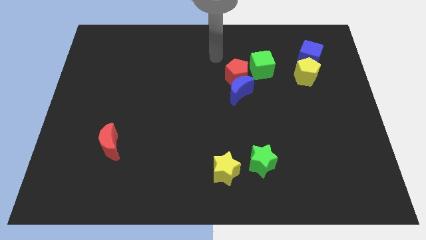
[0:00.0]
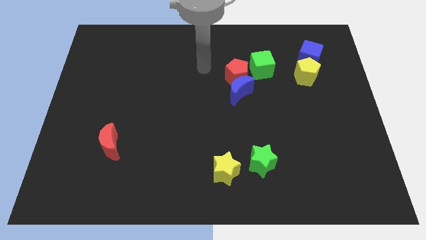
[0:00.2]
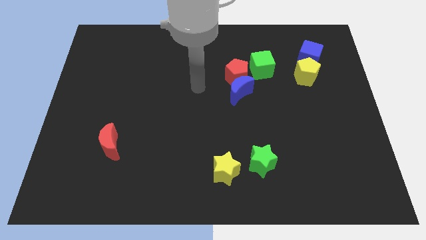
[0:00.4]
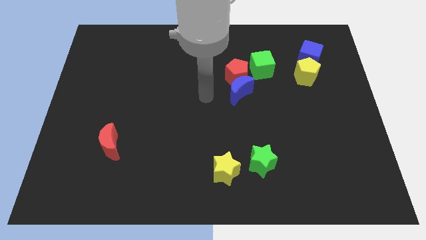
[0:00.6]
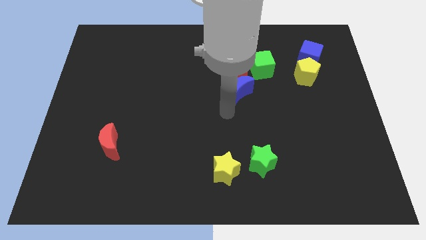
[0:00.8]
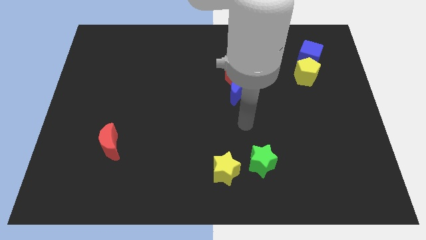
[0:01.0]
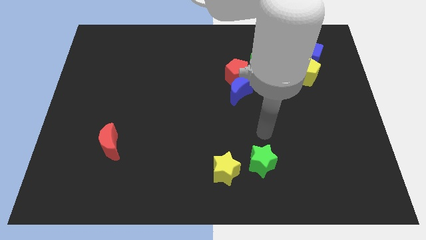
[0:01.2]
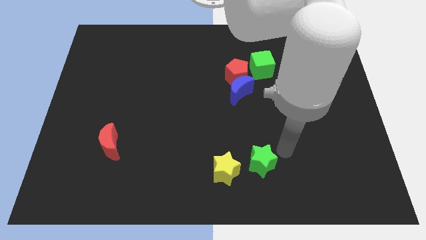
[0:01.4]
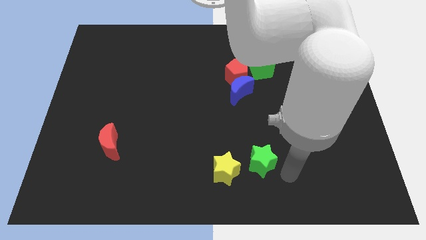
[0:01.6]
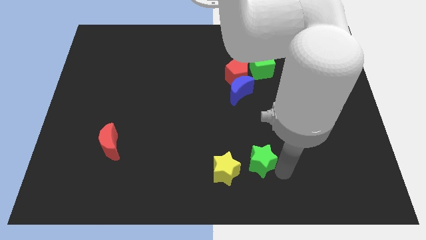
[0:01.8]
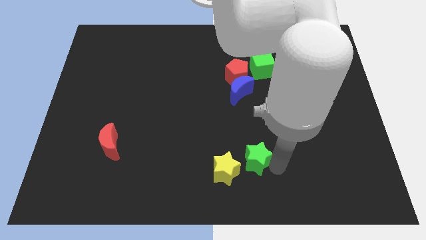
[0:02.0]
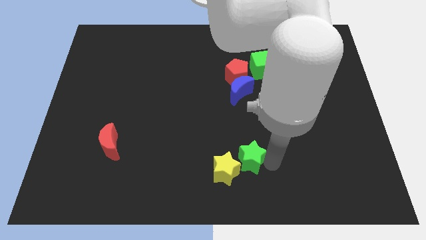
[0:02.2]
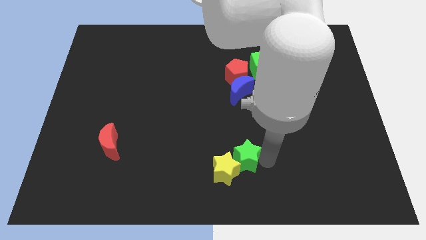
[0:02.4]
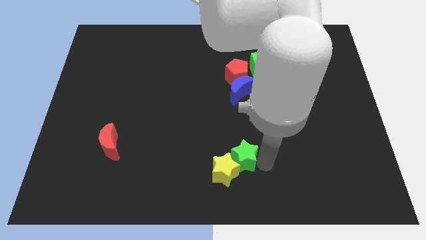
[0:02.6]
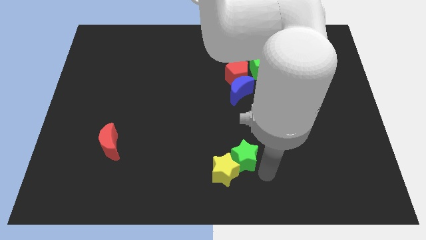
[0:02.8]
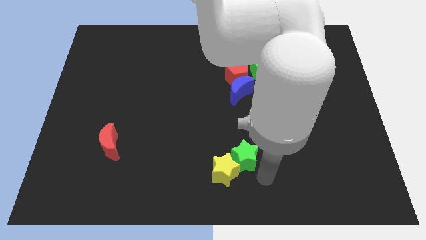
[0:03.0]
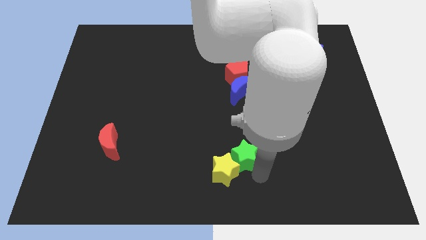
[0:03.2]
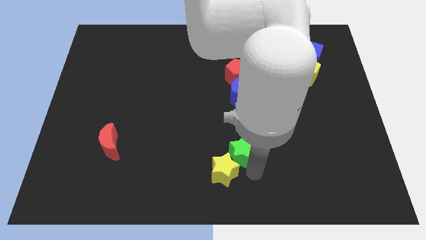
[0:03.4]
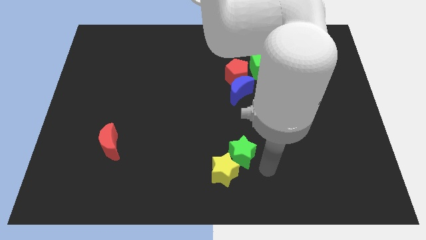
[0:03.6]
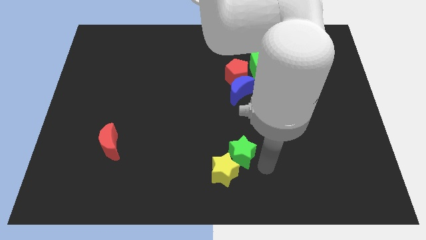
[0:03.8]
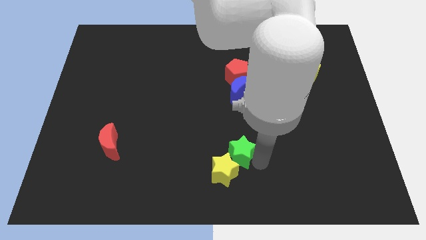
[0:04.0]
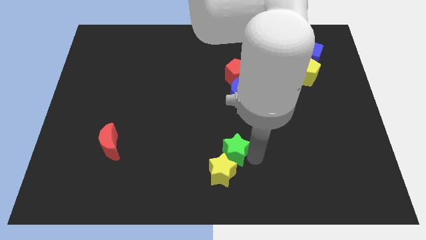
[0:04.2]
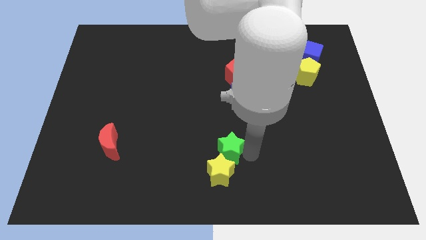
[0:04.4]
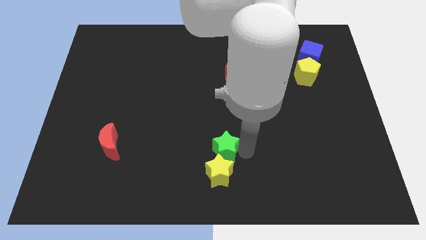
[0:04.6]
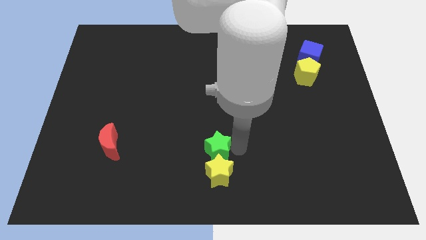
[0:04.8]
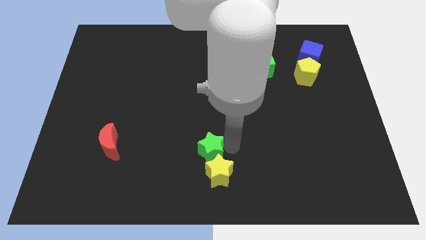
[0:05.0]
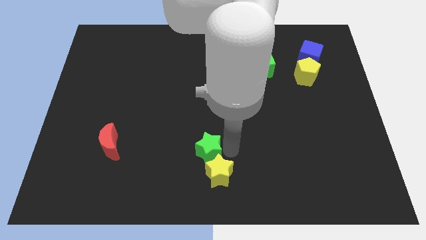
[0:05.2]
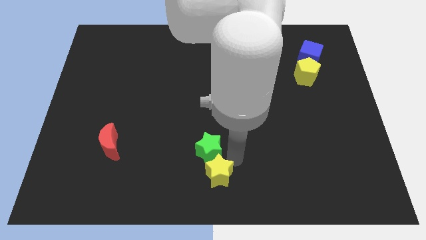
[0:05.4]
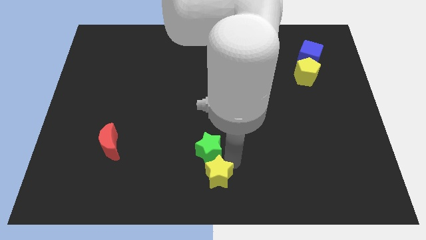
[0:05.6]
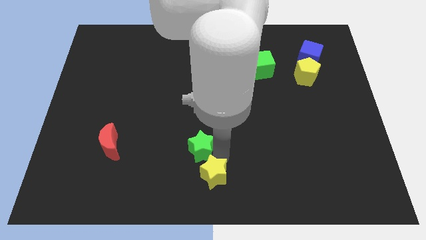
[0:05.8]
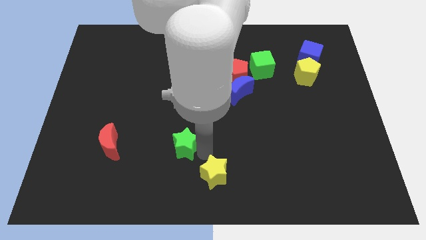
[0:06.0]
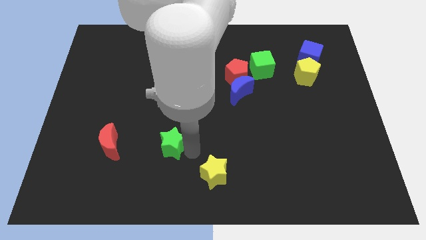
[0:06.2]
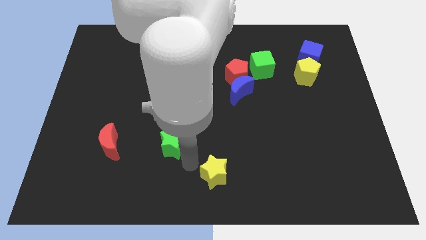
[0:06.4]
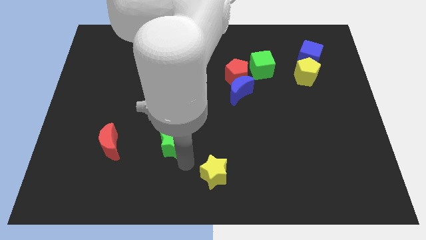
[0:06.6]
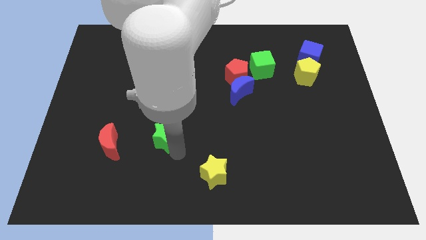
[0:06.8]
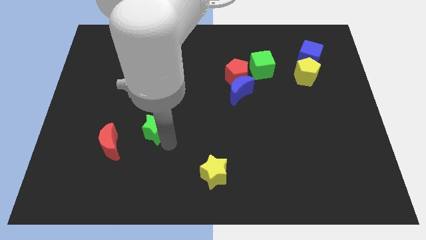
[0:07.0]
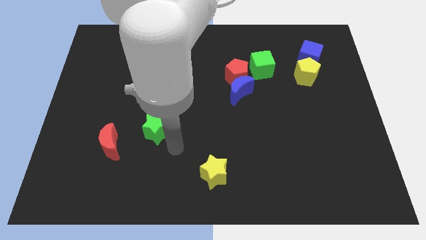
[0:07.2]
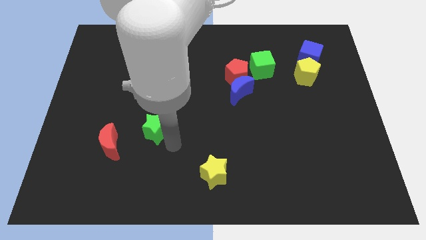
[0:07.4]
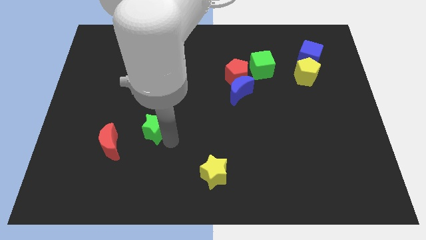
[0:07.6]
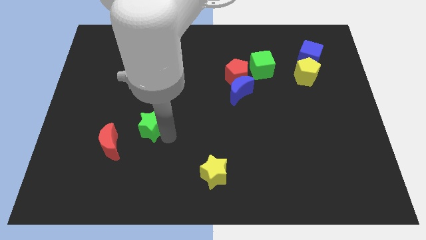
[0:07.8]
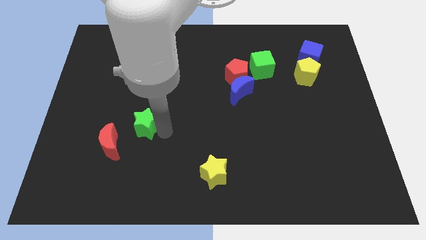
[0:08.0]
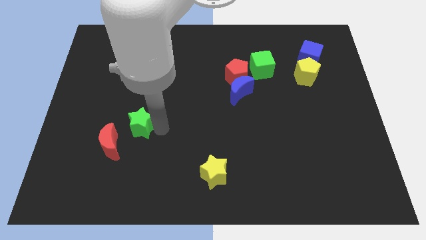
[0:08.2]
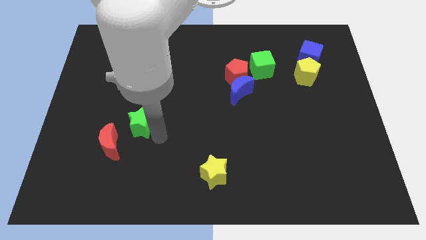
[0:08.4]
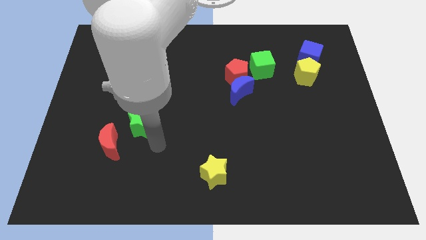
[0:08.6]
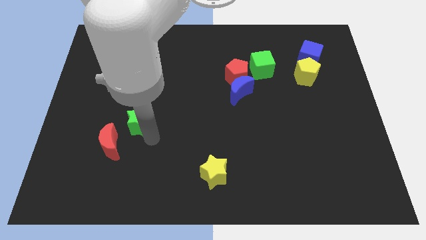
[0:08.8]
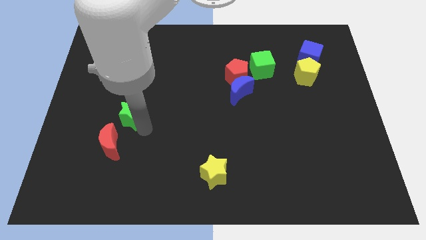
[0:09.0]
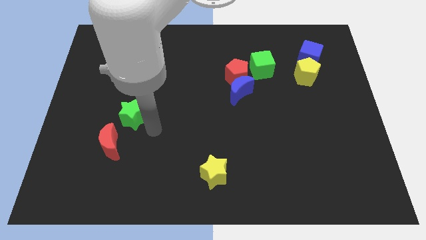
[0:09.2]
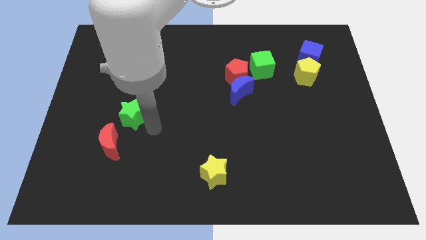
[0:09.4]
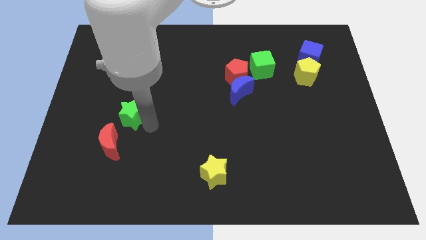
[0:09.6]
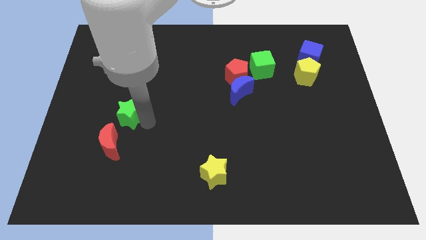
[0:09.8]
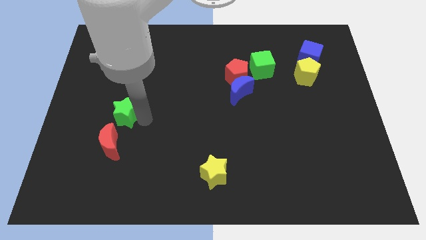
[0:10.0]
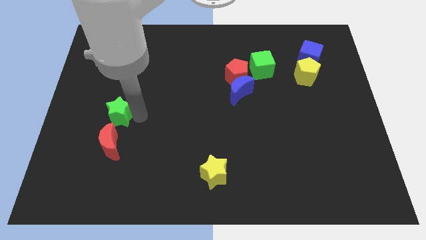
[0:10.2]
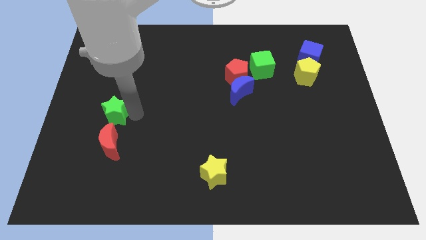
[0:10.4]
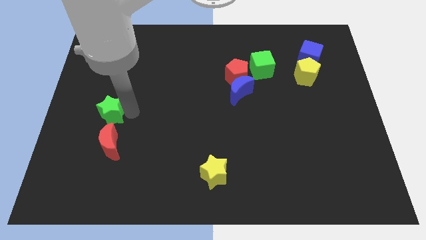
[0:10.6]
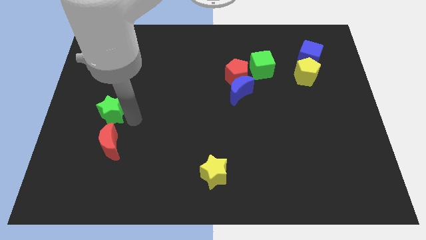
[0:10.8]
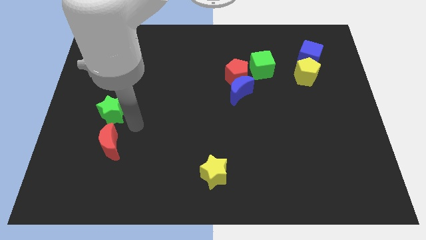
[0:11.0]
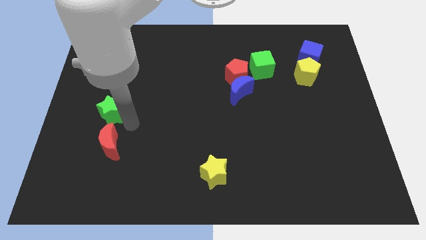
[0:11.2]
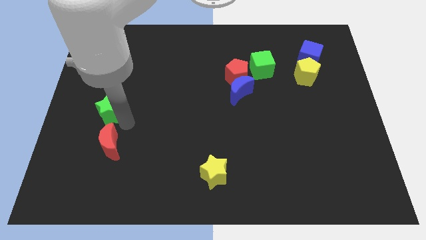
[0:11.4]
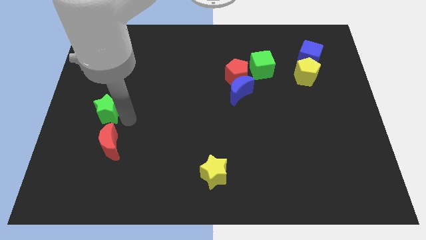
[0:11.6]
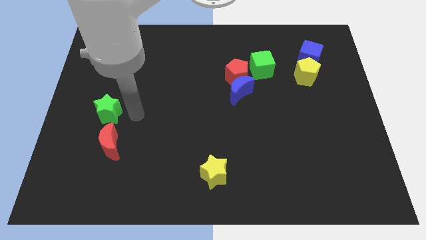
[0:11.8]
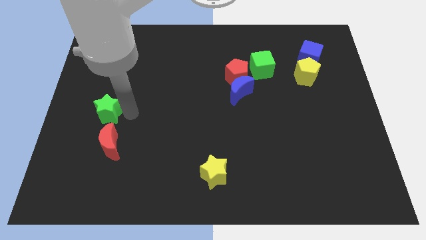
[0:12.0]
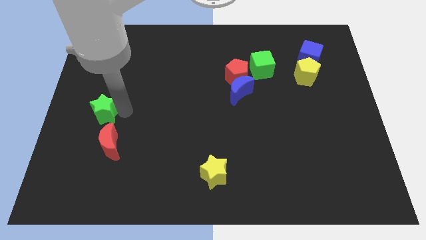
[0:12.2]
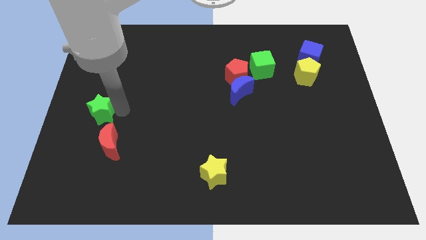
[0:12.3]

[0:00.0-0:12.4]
slide the green star to the left side
